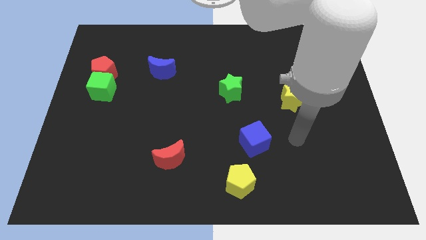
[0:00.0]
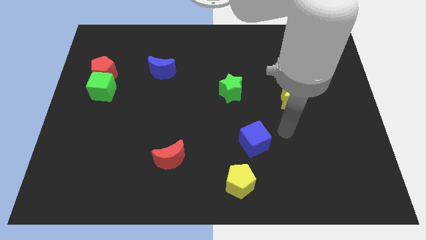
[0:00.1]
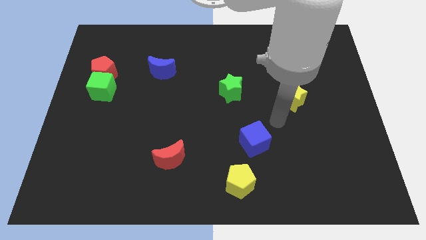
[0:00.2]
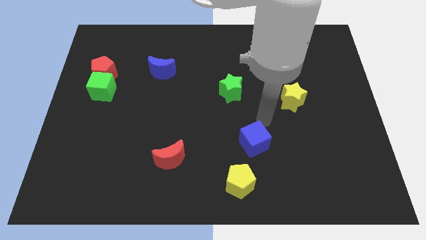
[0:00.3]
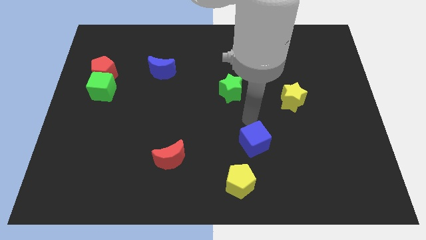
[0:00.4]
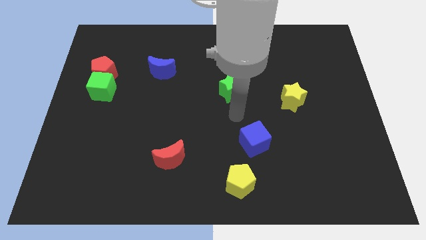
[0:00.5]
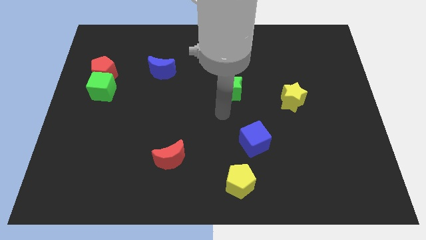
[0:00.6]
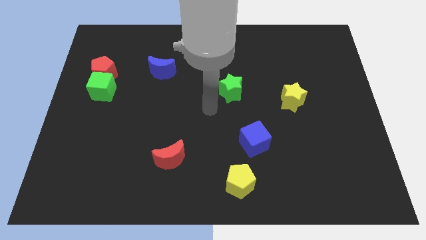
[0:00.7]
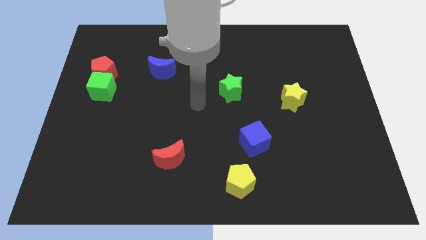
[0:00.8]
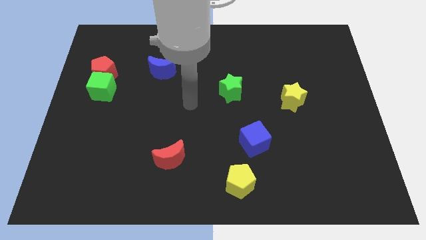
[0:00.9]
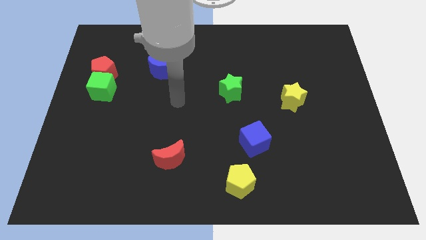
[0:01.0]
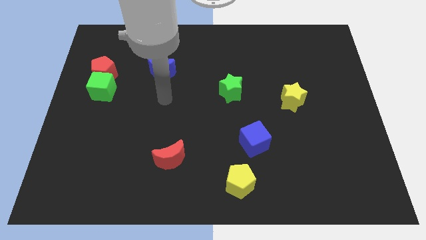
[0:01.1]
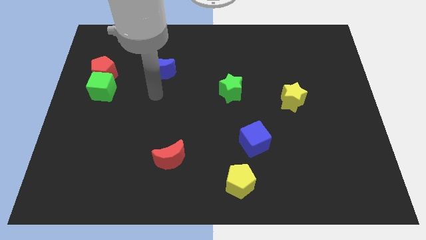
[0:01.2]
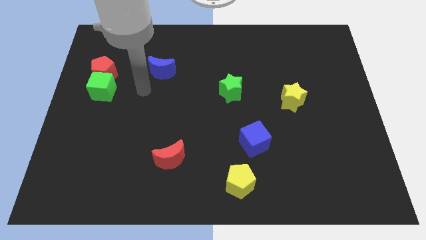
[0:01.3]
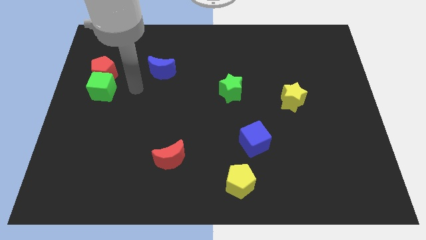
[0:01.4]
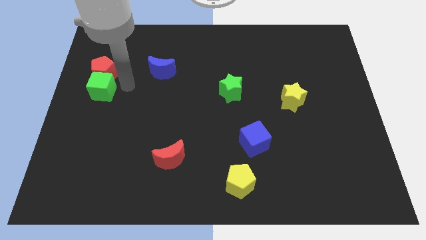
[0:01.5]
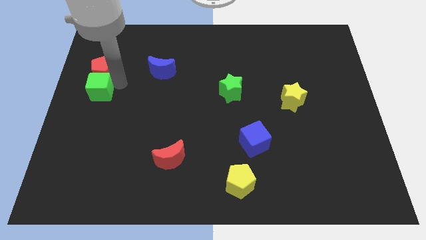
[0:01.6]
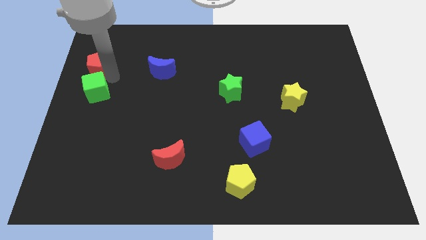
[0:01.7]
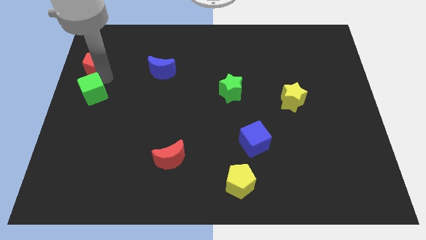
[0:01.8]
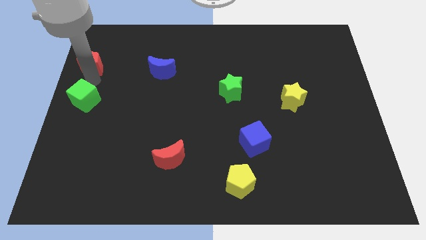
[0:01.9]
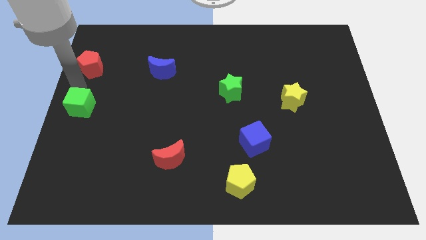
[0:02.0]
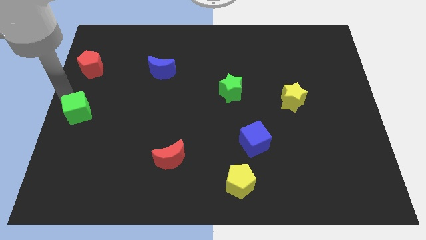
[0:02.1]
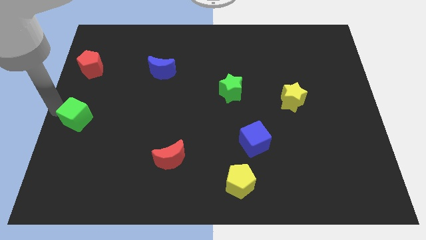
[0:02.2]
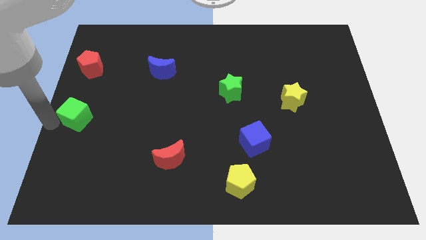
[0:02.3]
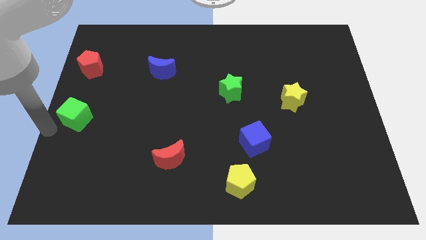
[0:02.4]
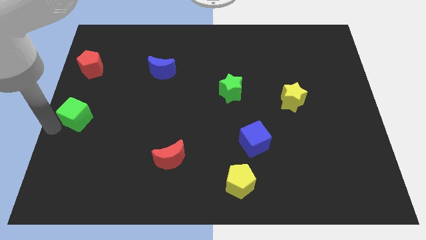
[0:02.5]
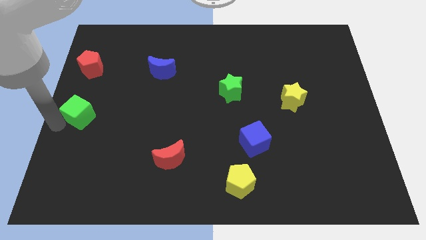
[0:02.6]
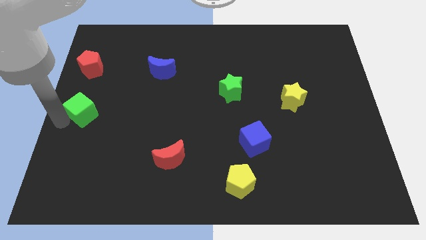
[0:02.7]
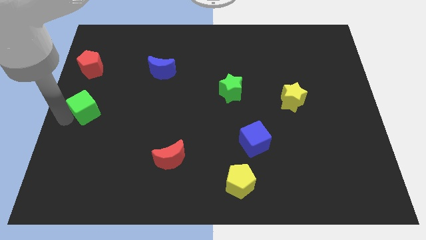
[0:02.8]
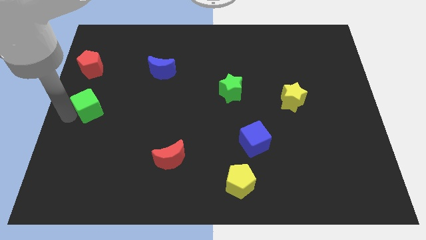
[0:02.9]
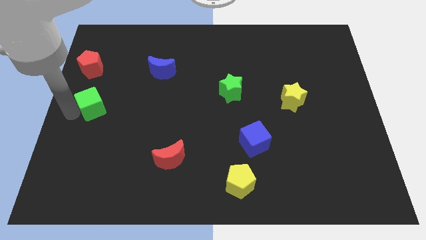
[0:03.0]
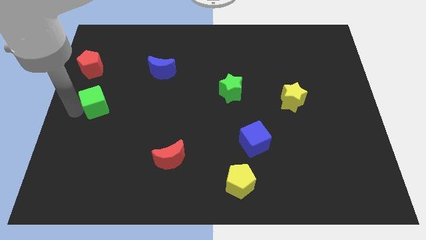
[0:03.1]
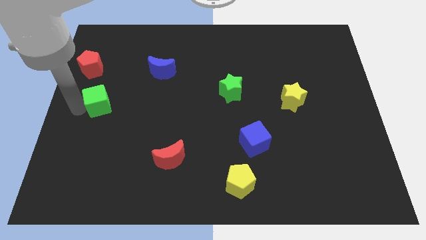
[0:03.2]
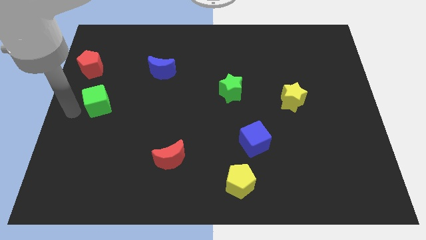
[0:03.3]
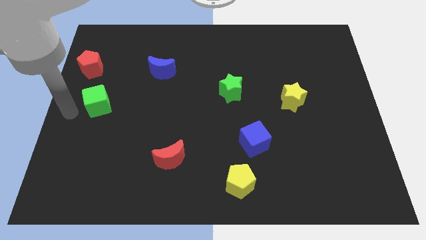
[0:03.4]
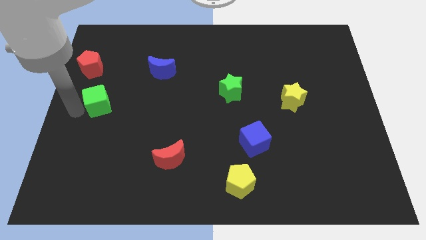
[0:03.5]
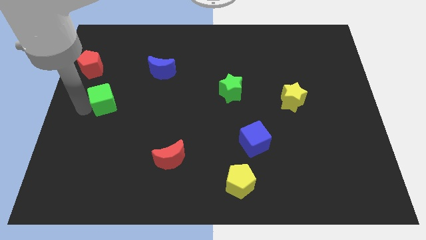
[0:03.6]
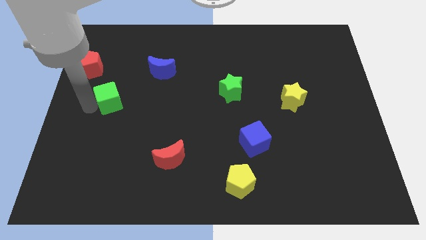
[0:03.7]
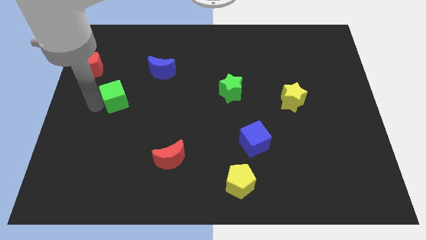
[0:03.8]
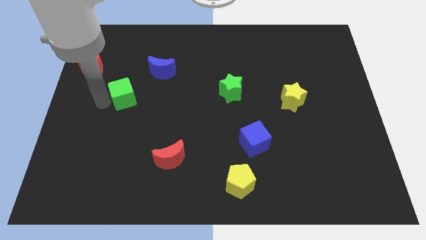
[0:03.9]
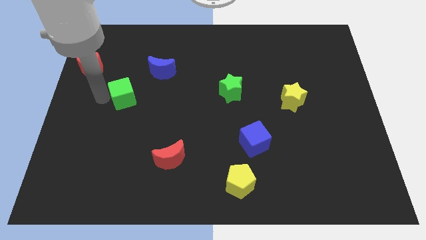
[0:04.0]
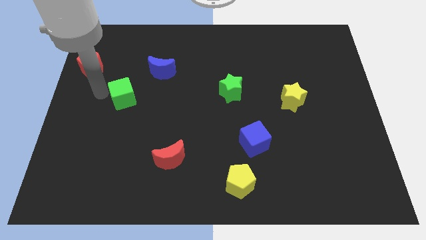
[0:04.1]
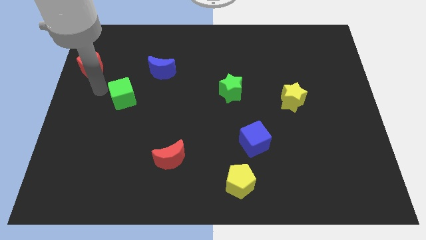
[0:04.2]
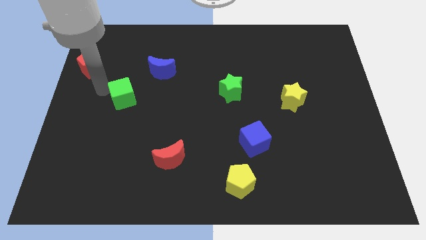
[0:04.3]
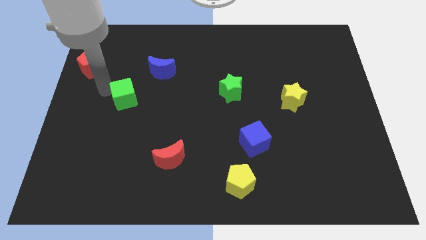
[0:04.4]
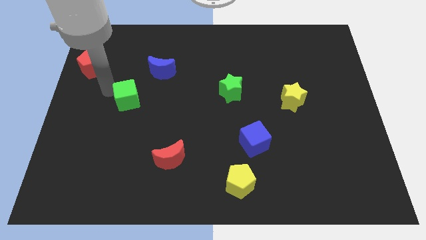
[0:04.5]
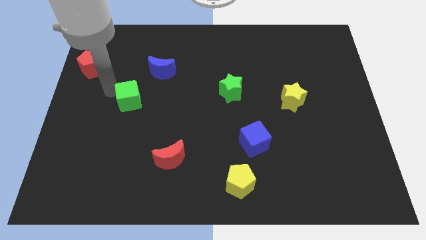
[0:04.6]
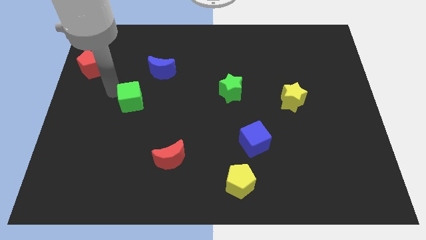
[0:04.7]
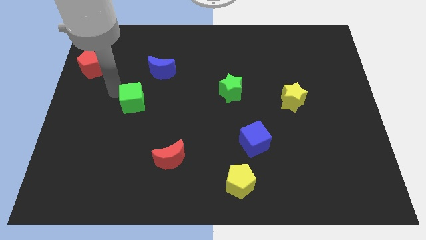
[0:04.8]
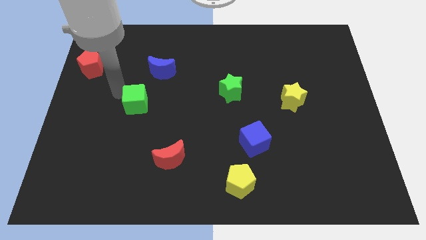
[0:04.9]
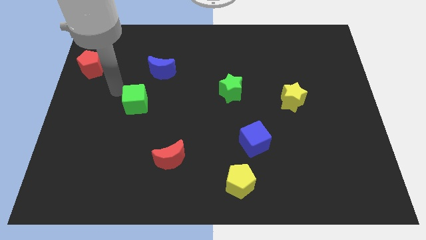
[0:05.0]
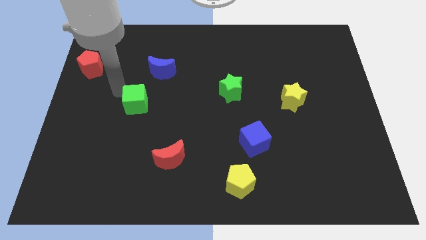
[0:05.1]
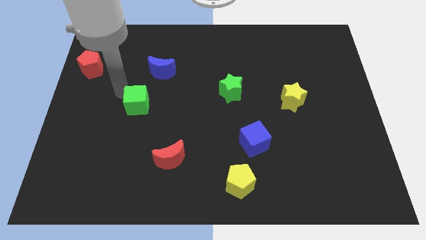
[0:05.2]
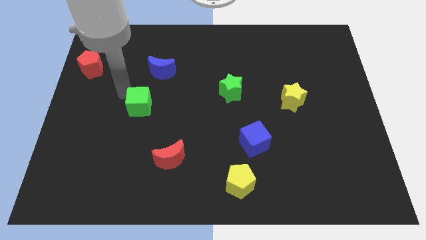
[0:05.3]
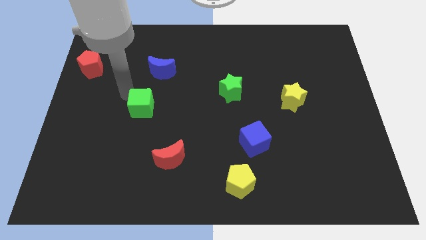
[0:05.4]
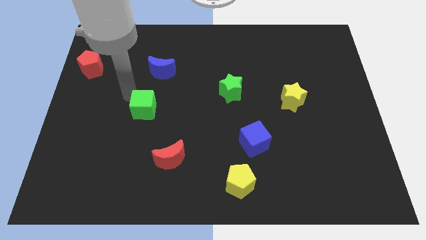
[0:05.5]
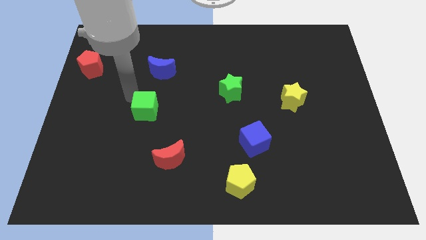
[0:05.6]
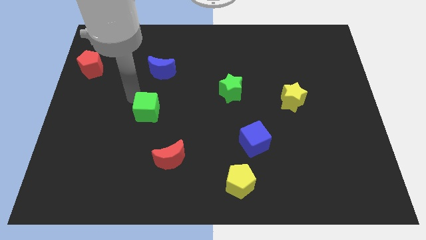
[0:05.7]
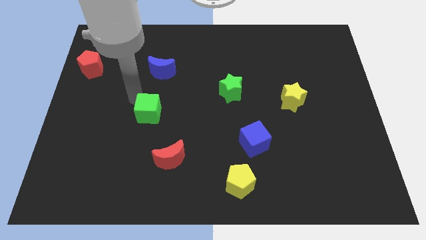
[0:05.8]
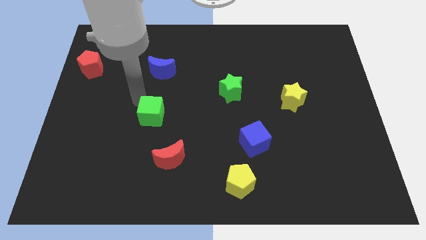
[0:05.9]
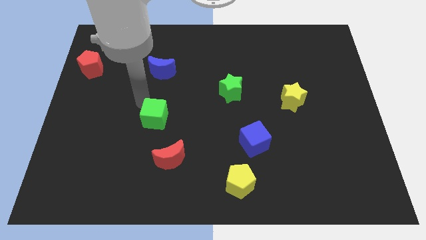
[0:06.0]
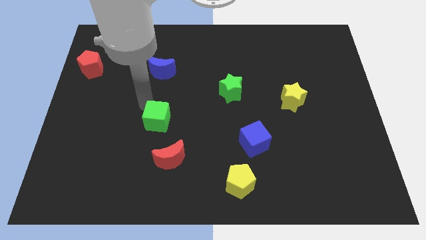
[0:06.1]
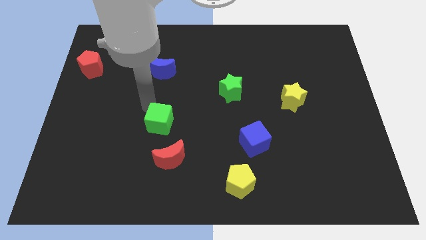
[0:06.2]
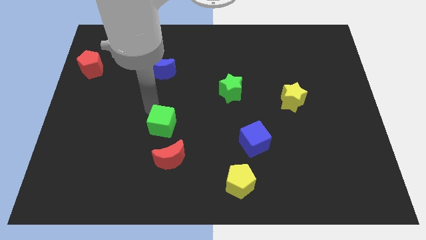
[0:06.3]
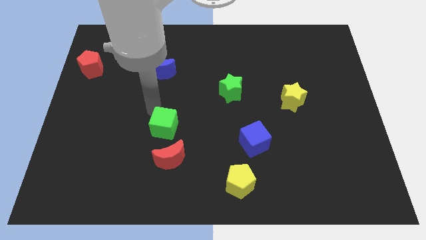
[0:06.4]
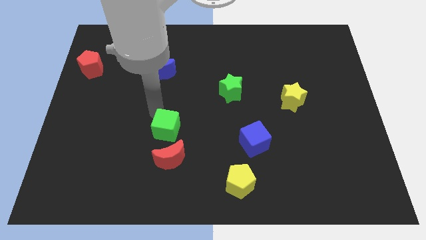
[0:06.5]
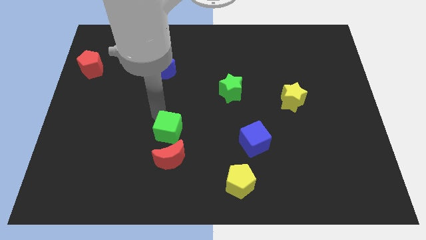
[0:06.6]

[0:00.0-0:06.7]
move the green cube downwards and to the right

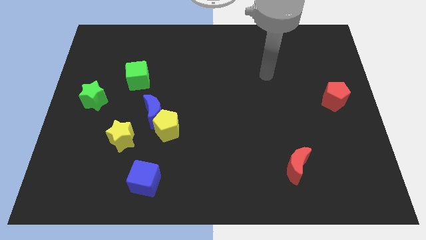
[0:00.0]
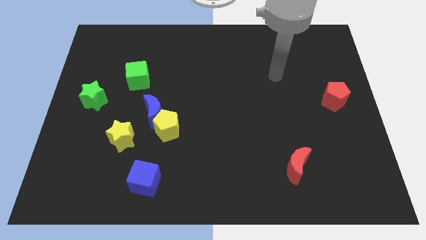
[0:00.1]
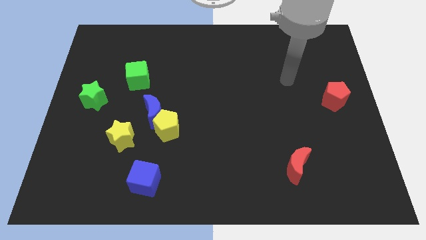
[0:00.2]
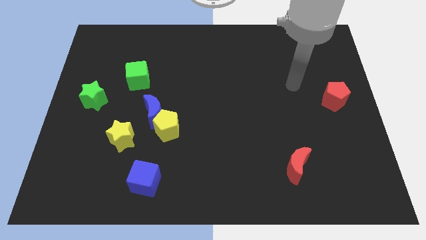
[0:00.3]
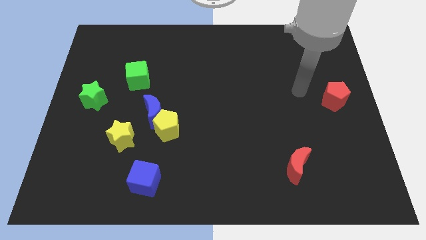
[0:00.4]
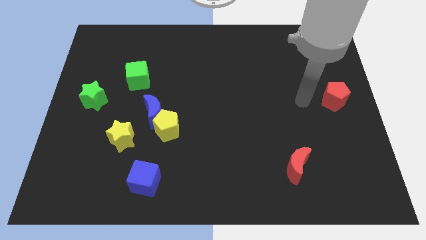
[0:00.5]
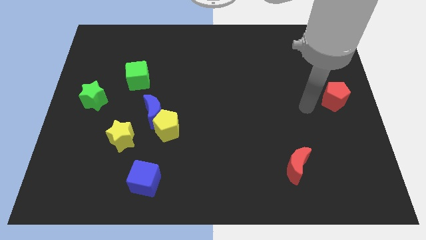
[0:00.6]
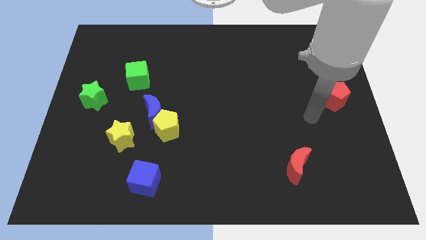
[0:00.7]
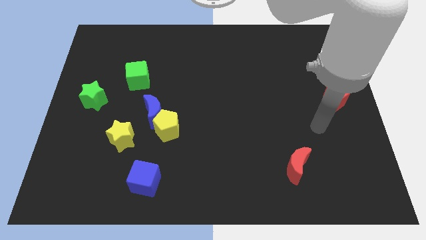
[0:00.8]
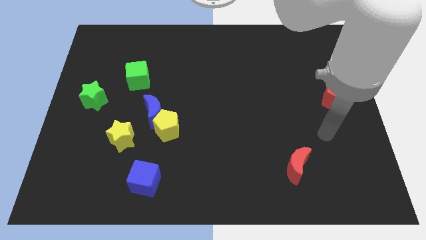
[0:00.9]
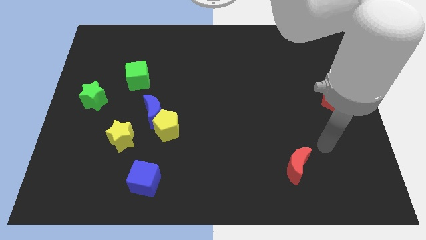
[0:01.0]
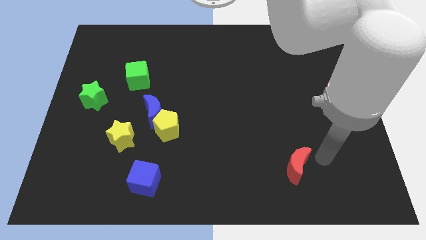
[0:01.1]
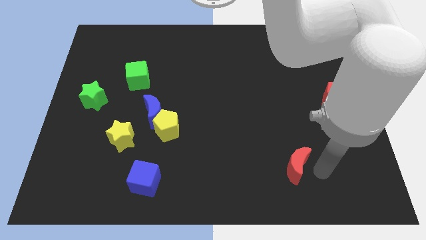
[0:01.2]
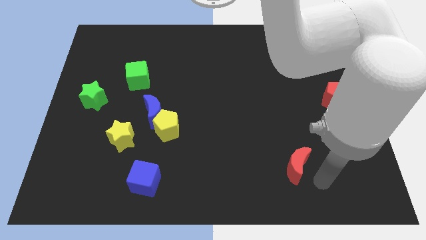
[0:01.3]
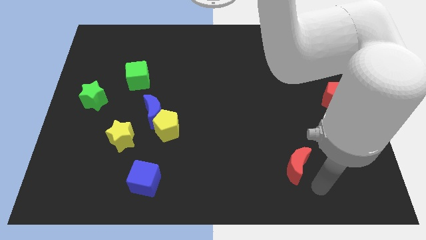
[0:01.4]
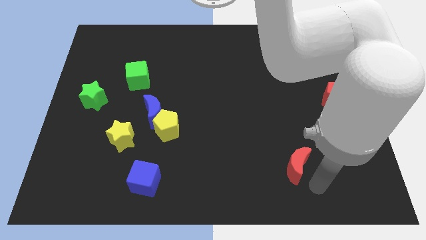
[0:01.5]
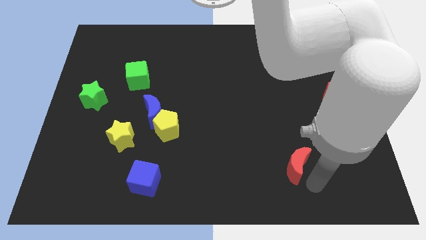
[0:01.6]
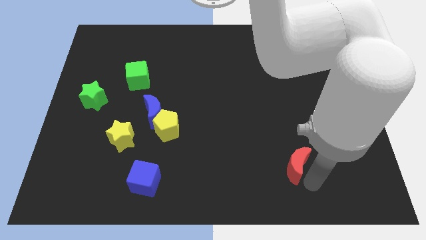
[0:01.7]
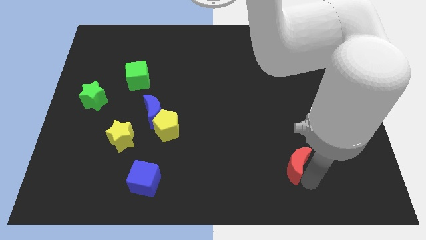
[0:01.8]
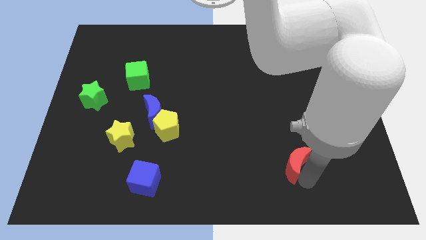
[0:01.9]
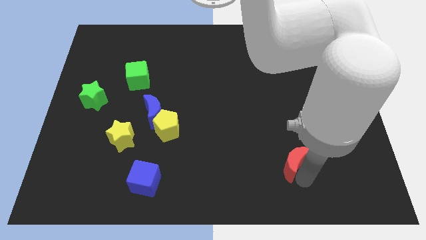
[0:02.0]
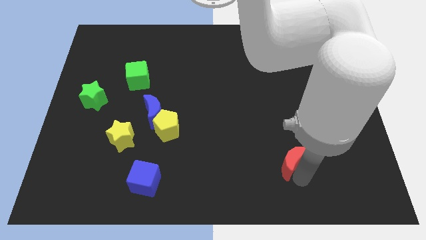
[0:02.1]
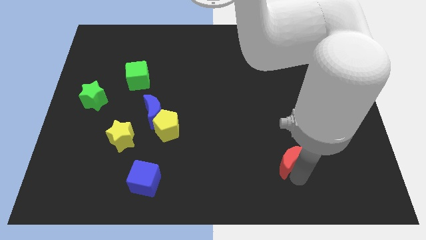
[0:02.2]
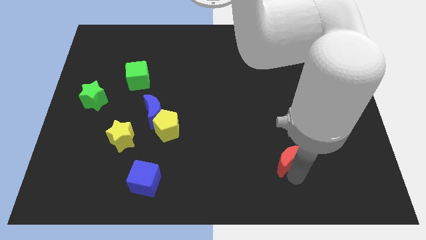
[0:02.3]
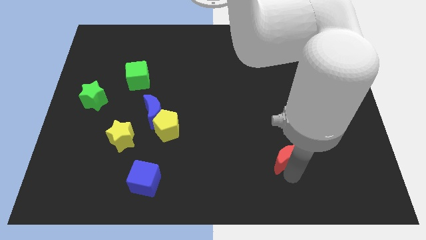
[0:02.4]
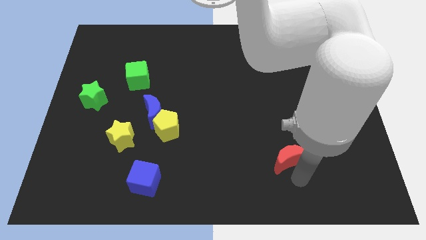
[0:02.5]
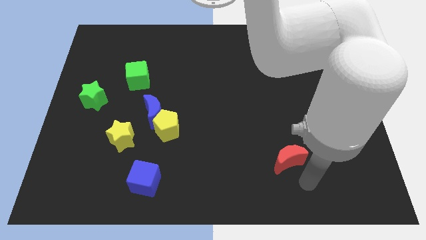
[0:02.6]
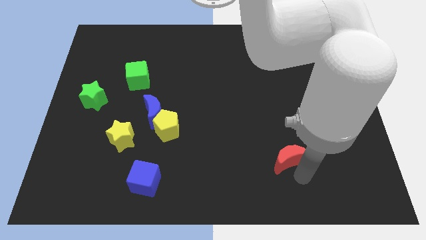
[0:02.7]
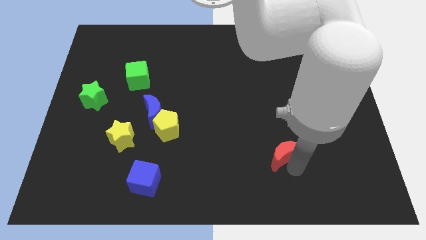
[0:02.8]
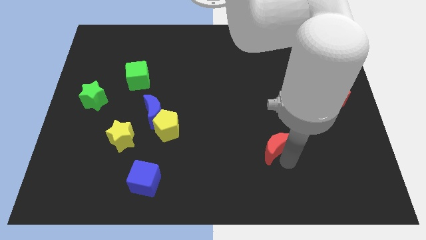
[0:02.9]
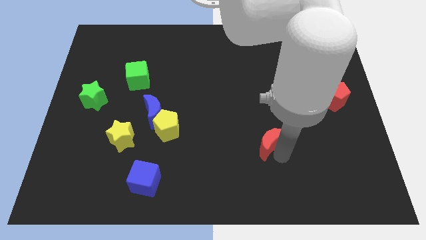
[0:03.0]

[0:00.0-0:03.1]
move the red moon a bit diagonally up and left
